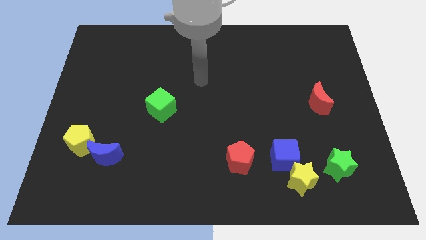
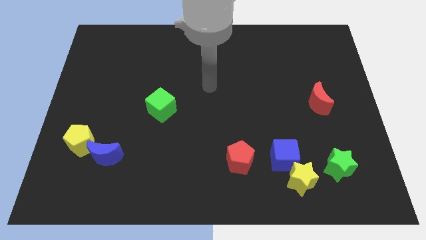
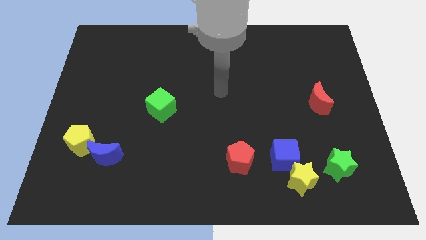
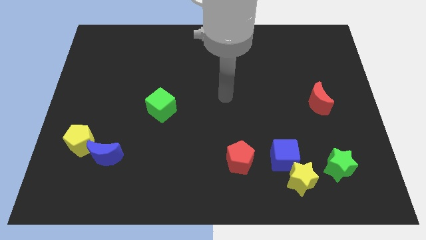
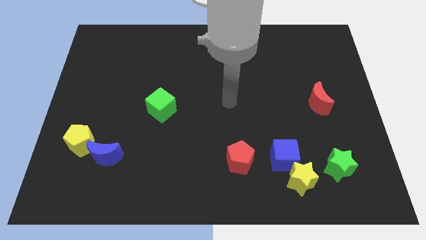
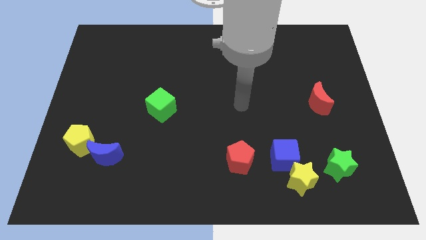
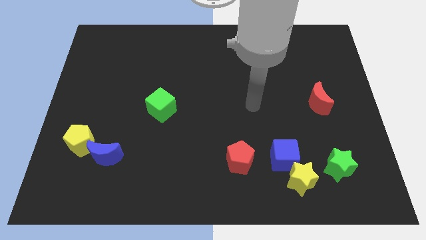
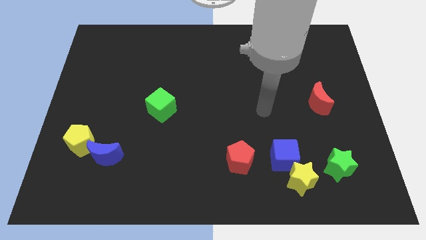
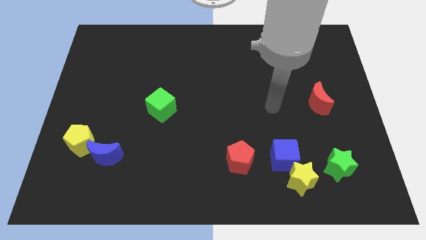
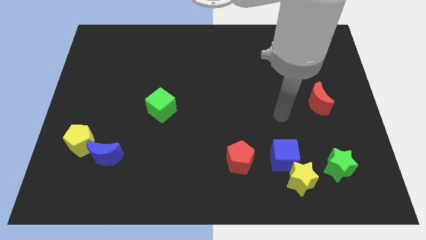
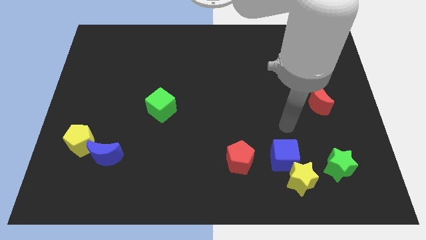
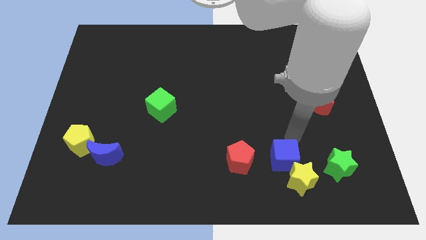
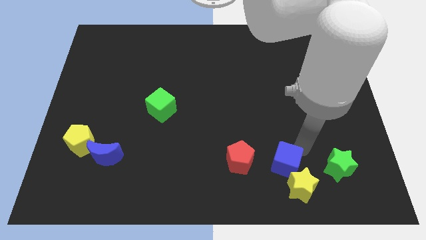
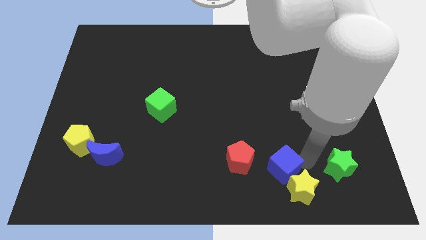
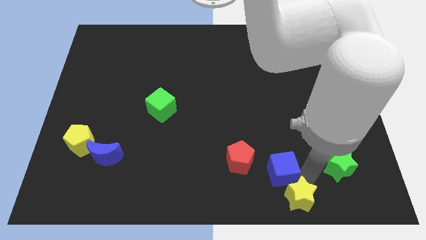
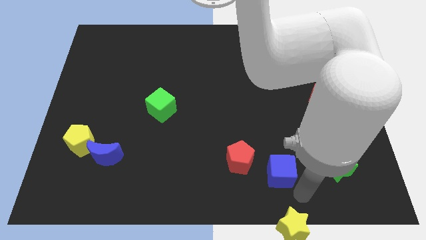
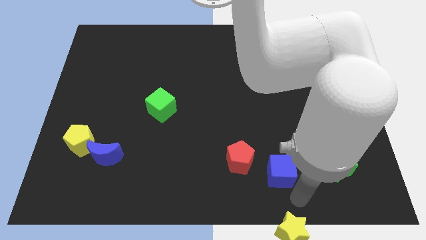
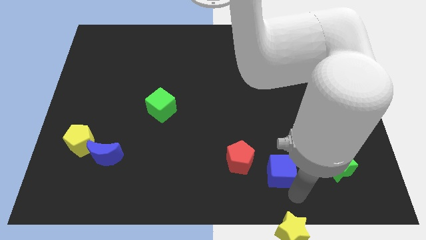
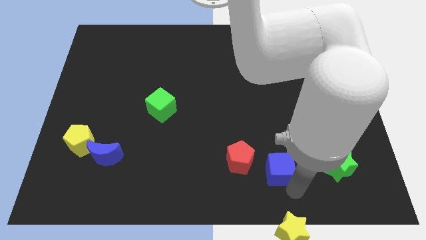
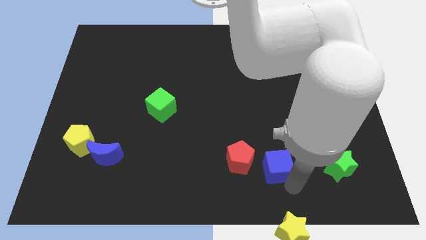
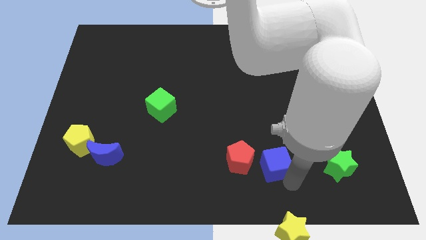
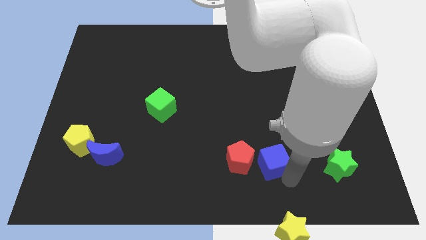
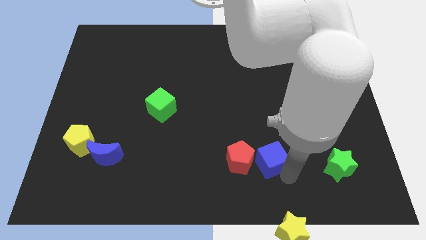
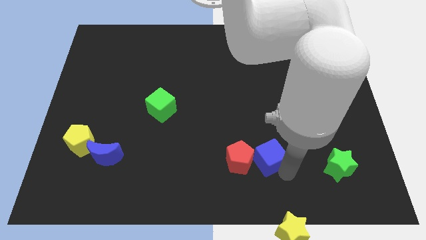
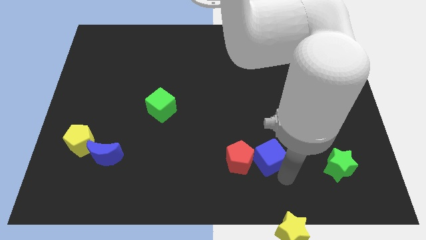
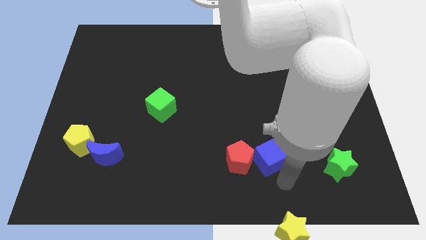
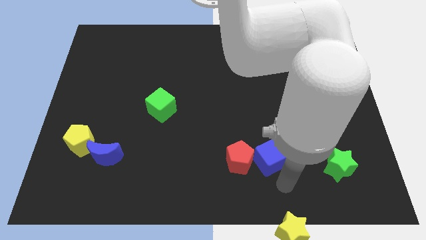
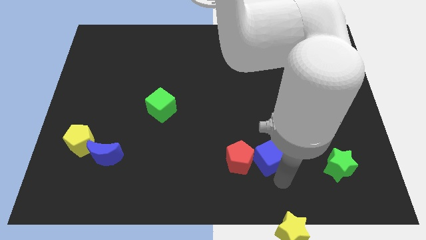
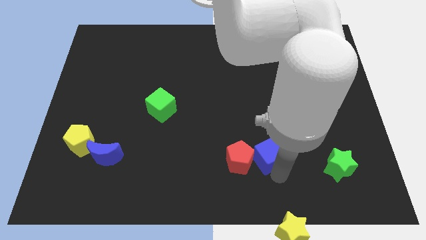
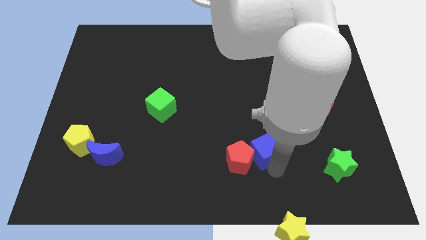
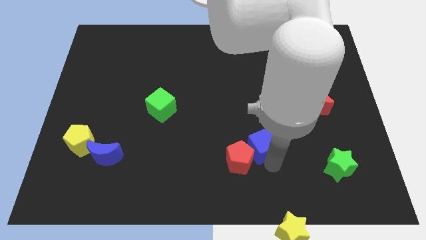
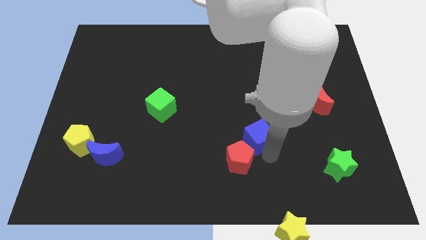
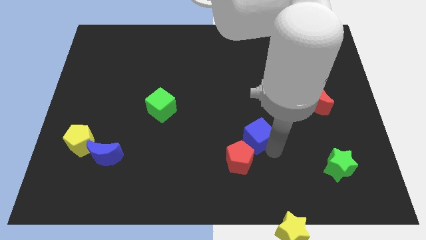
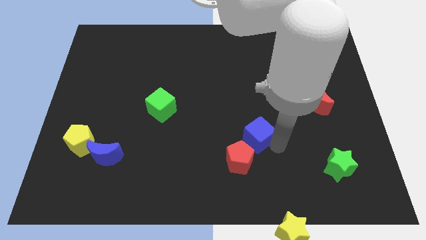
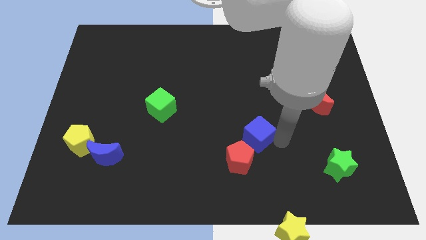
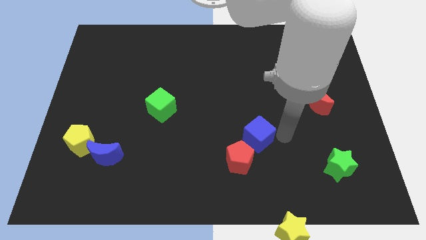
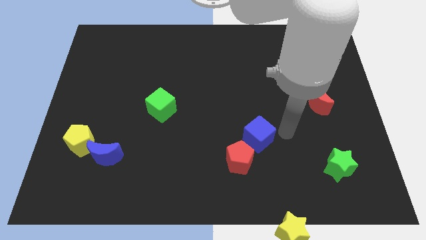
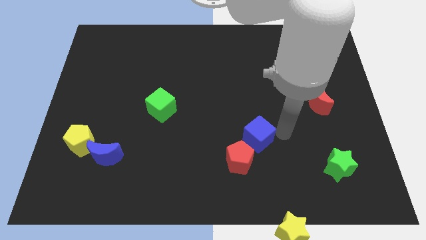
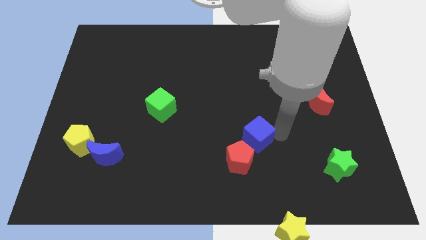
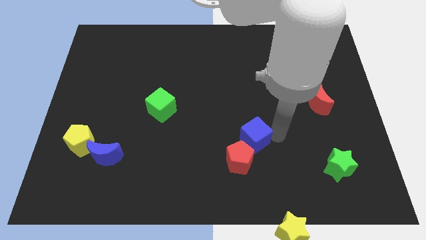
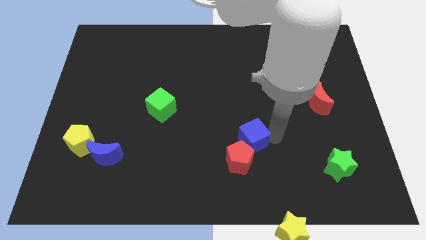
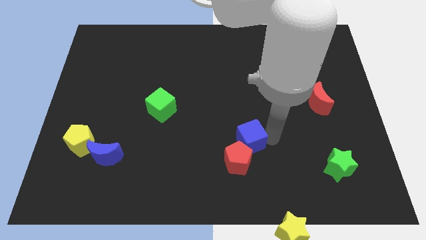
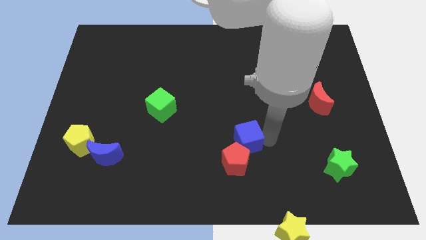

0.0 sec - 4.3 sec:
slide the blue cube to the left a bit

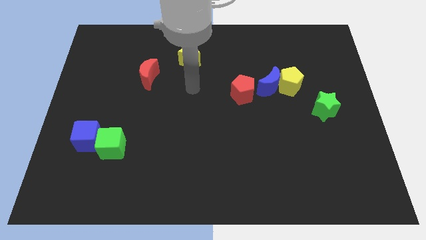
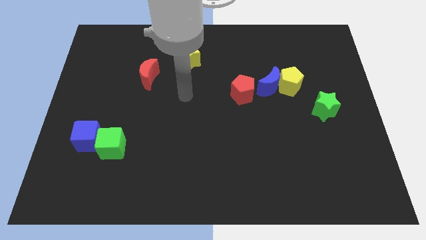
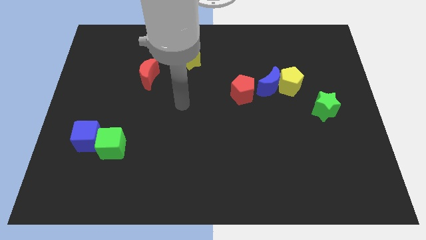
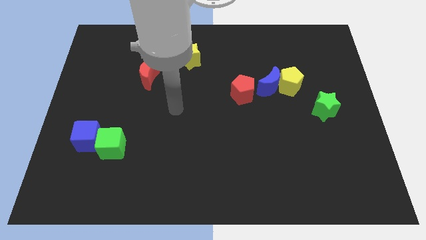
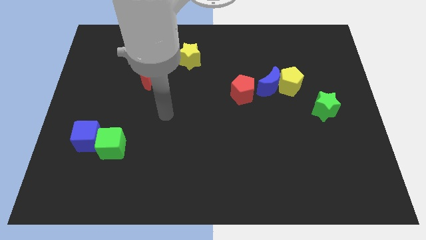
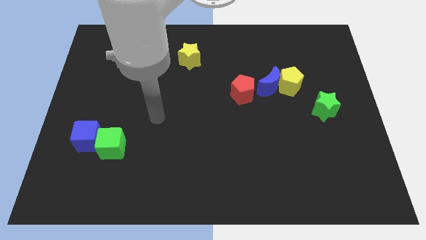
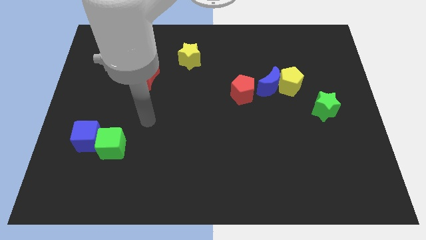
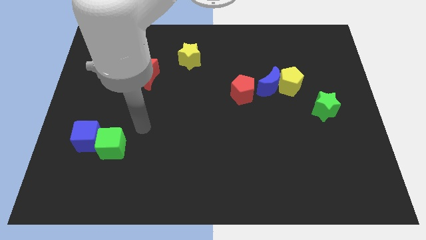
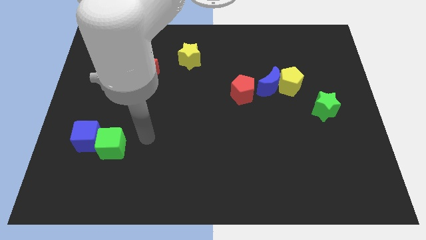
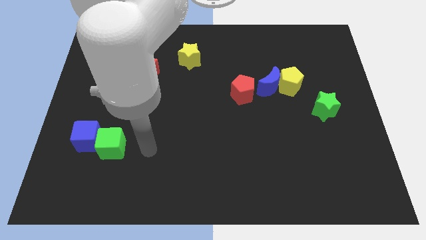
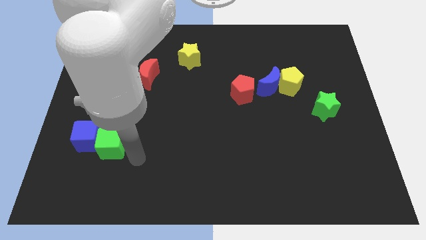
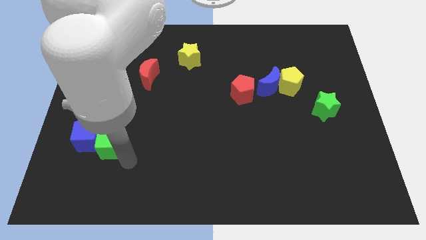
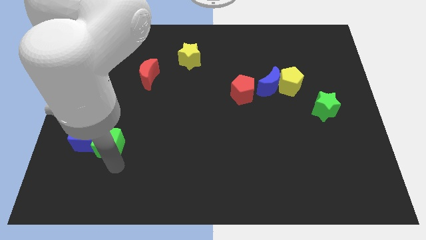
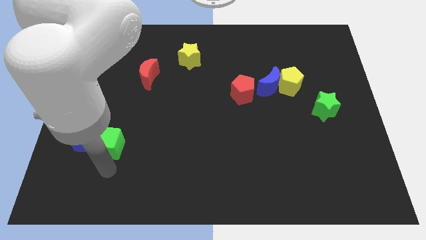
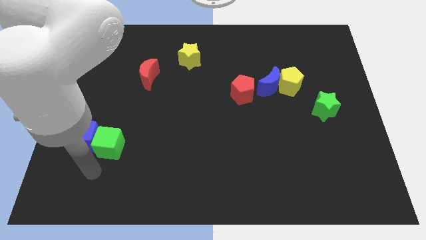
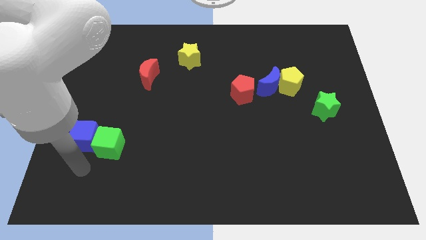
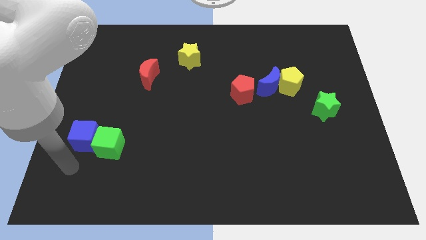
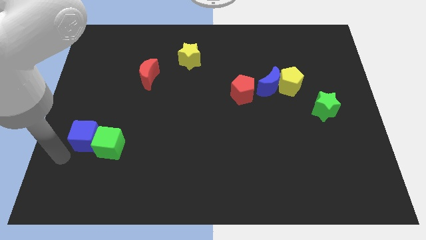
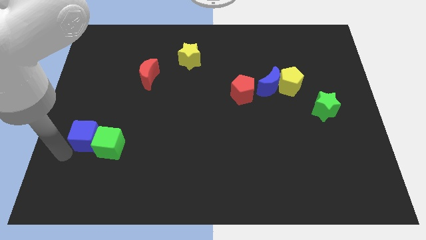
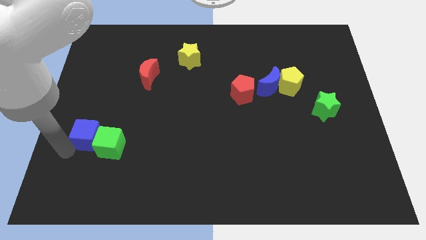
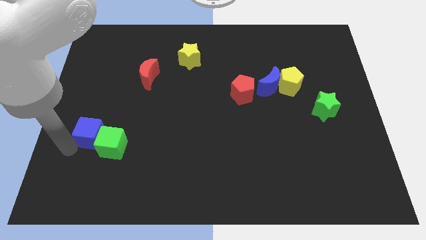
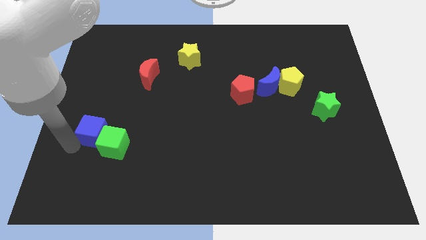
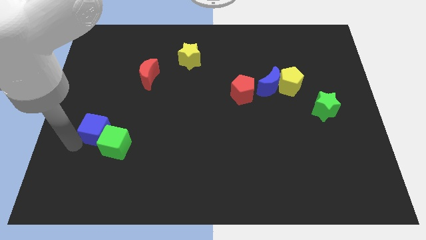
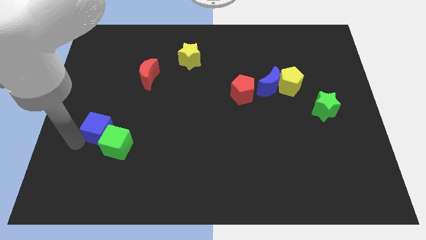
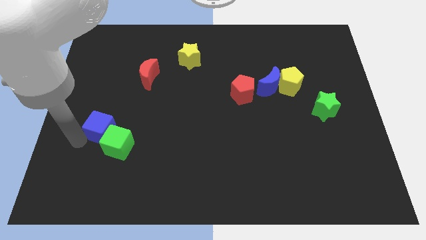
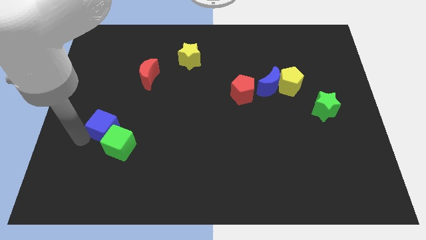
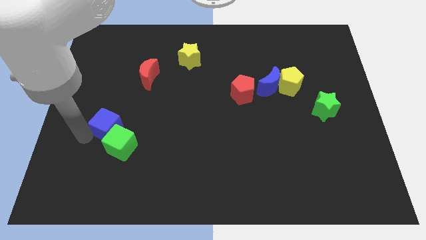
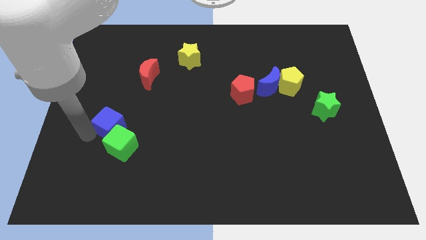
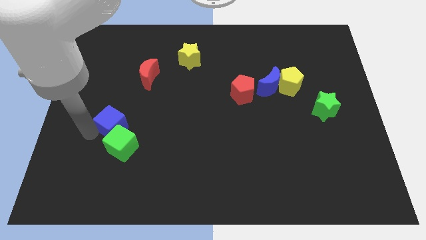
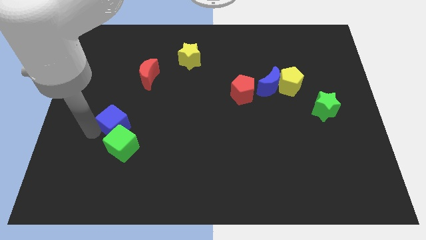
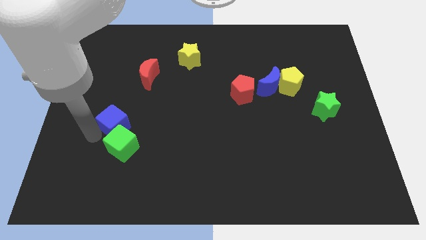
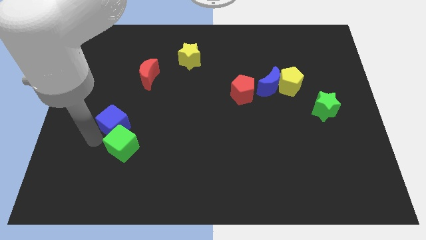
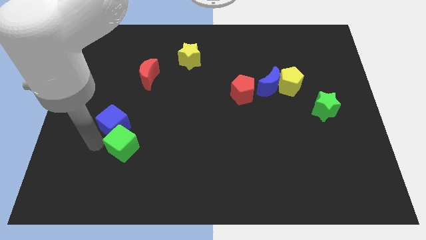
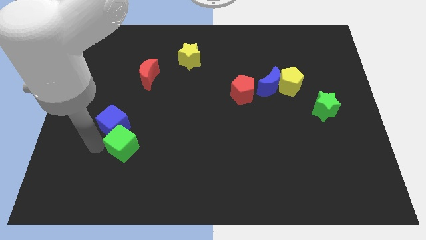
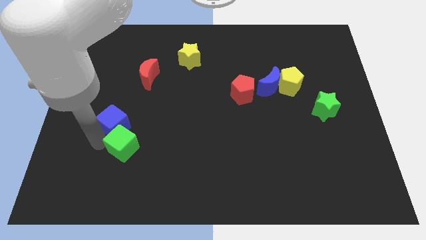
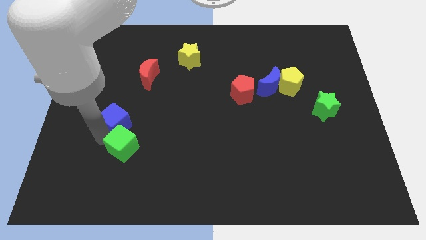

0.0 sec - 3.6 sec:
push the blue cube upwards and right diagonally somewhat

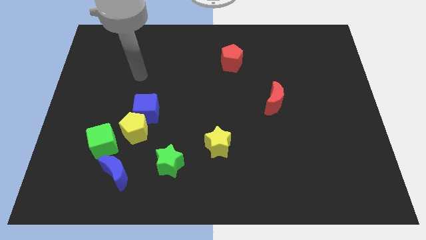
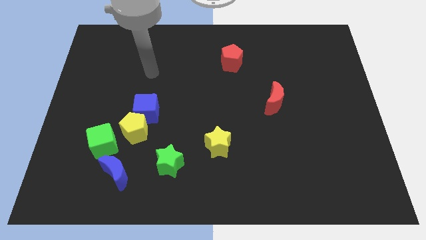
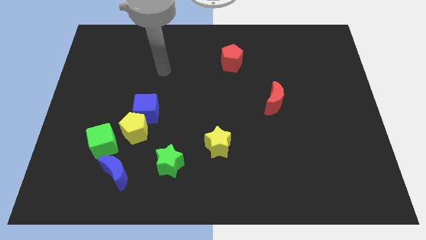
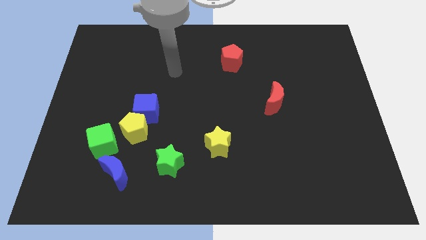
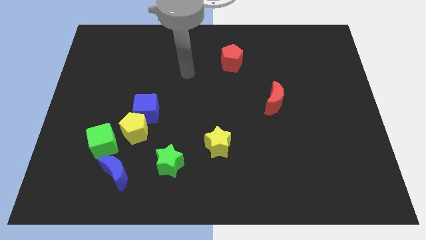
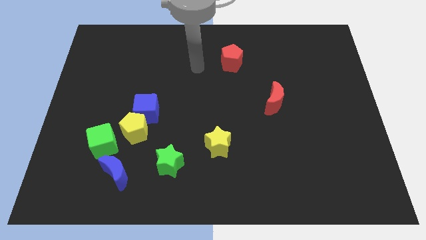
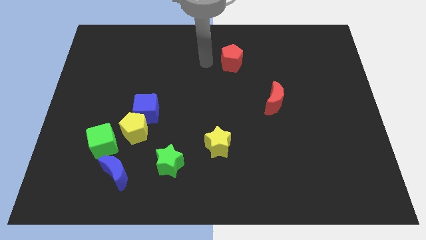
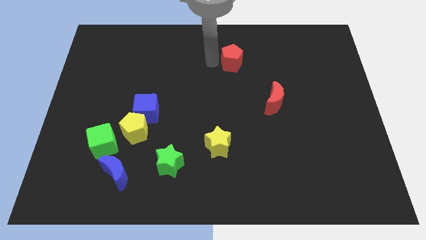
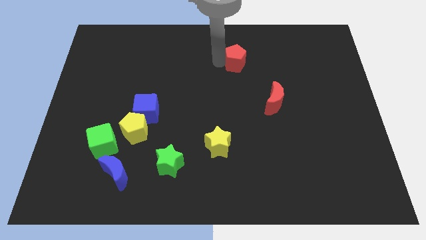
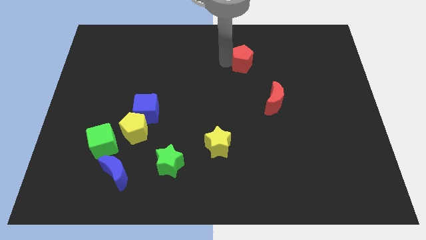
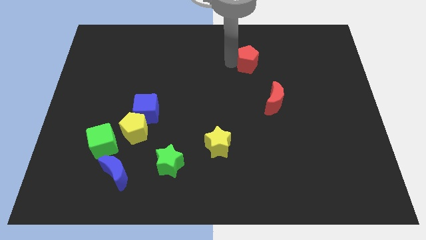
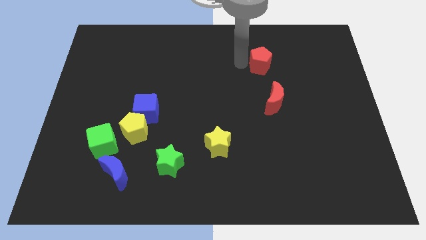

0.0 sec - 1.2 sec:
push the red pentagon right a bit
